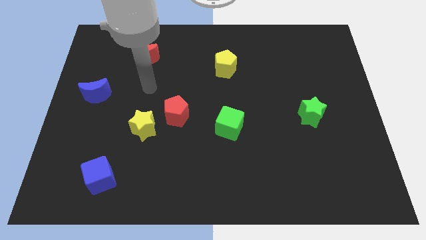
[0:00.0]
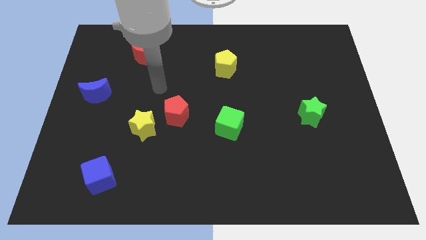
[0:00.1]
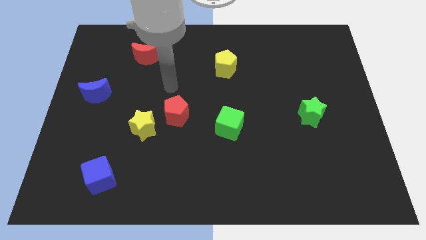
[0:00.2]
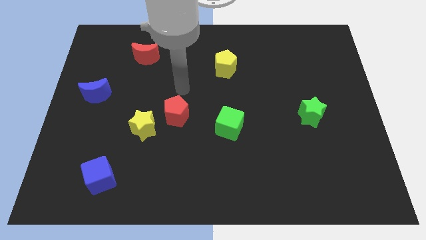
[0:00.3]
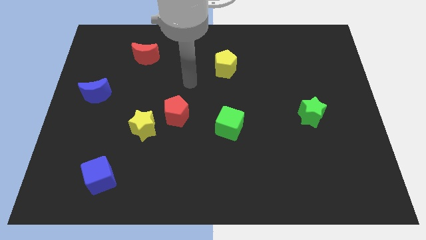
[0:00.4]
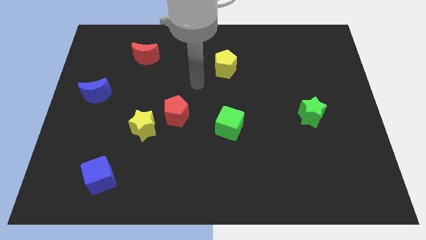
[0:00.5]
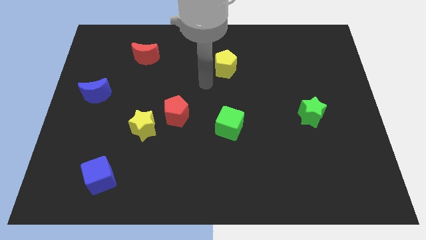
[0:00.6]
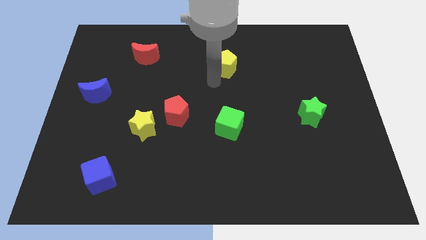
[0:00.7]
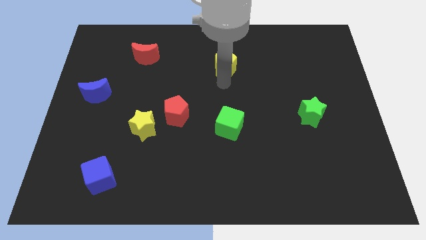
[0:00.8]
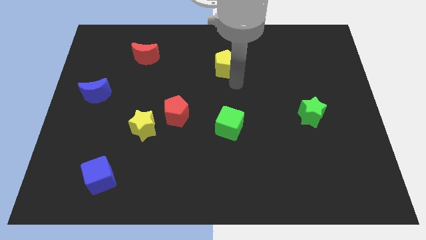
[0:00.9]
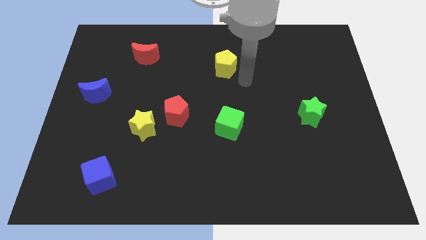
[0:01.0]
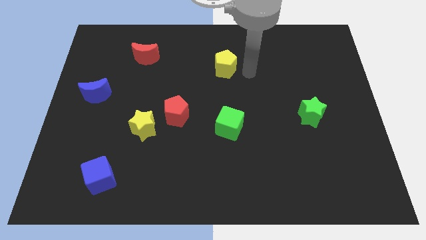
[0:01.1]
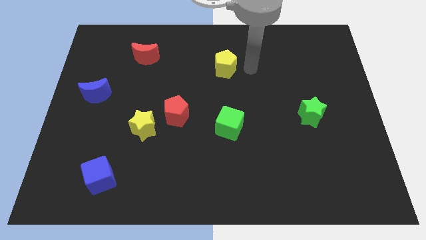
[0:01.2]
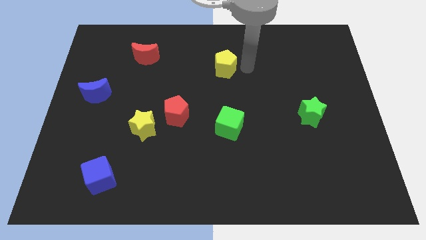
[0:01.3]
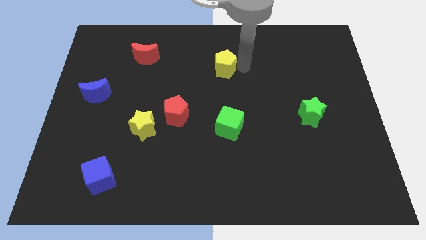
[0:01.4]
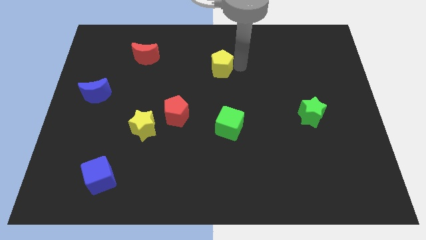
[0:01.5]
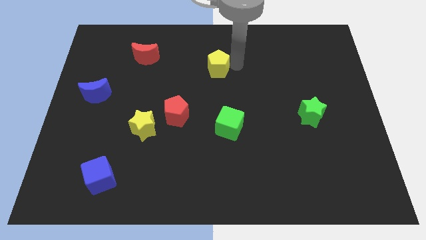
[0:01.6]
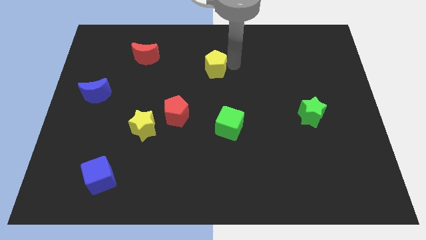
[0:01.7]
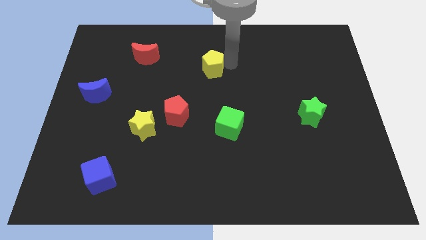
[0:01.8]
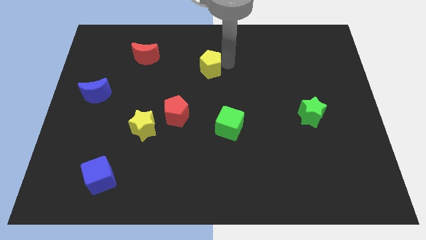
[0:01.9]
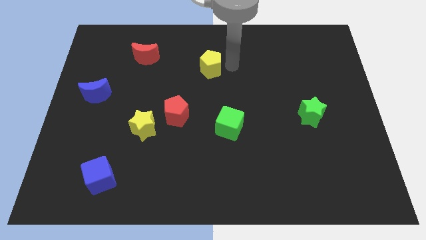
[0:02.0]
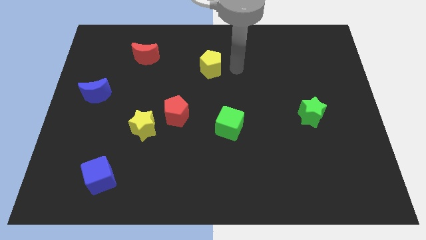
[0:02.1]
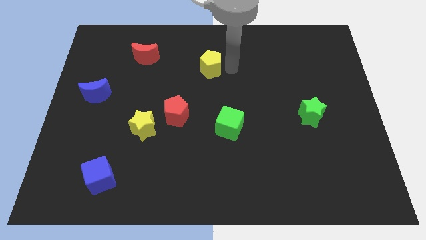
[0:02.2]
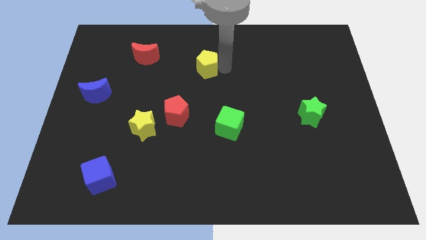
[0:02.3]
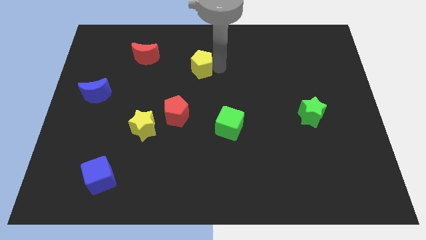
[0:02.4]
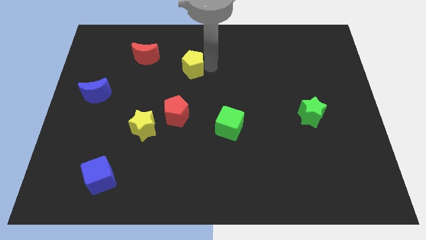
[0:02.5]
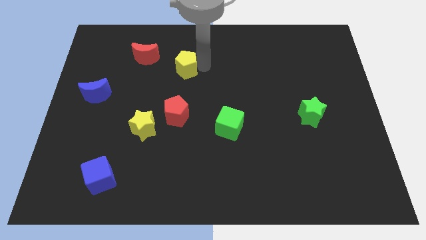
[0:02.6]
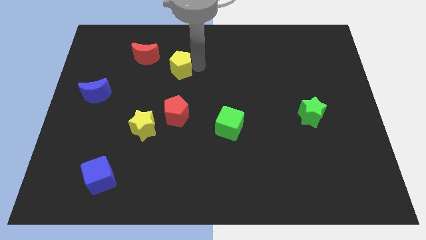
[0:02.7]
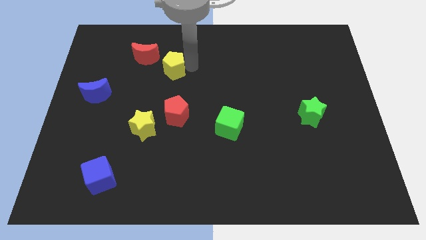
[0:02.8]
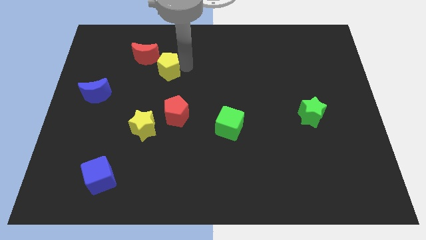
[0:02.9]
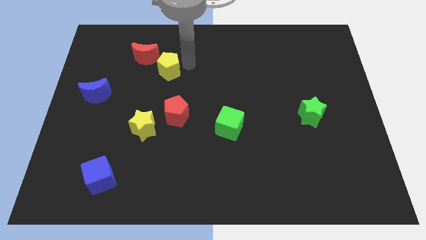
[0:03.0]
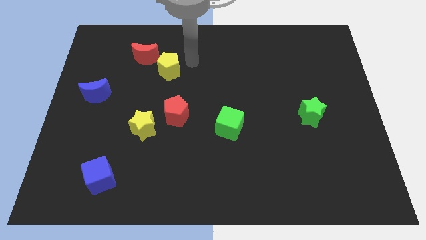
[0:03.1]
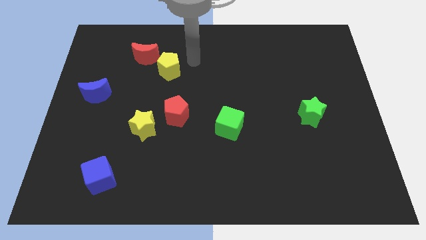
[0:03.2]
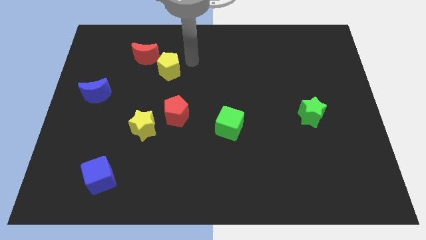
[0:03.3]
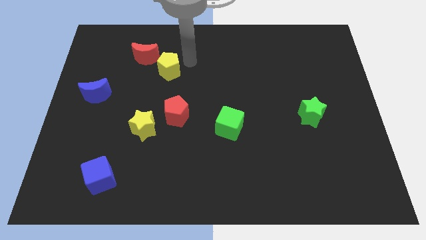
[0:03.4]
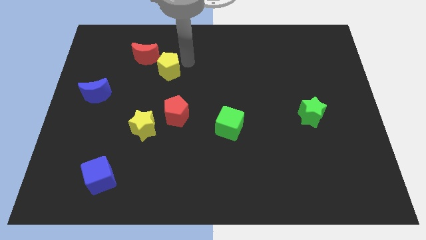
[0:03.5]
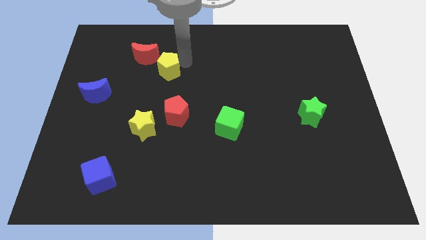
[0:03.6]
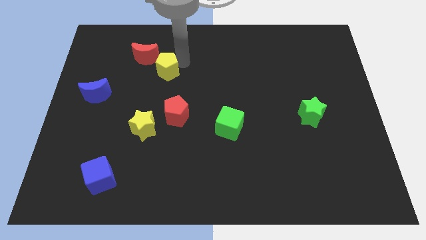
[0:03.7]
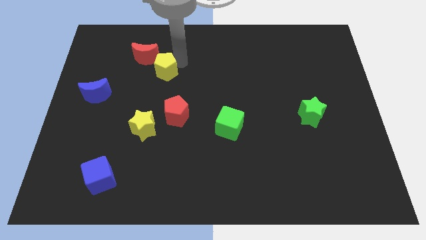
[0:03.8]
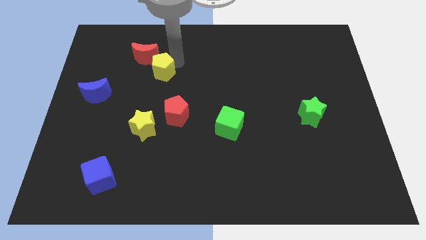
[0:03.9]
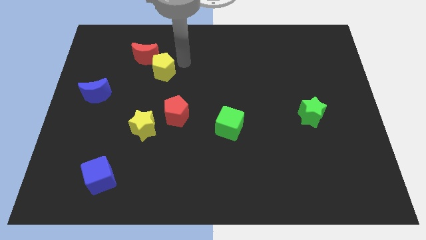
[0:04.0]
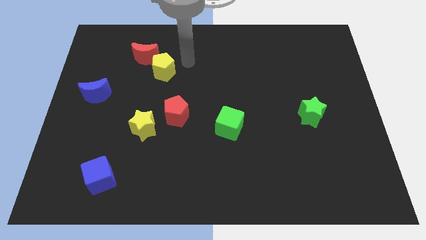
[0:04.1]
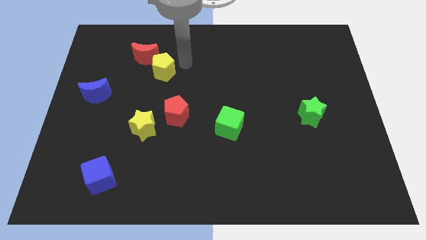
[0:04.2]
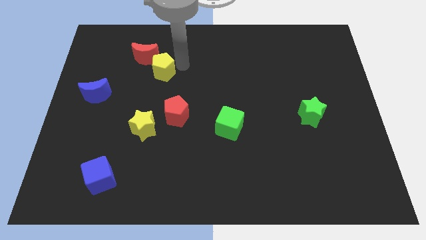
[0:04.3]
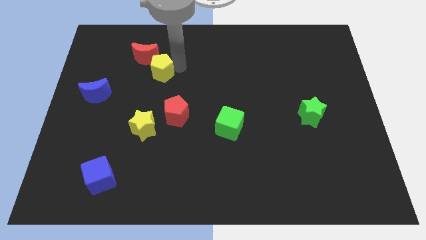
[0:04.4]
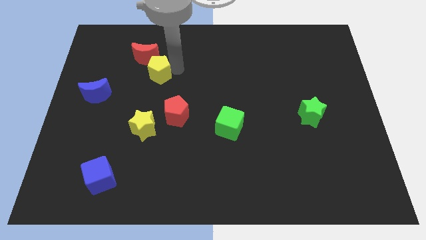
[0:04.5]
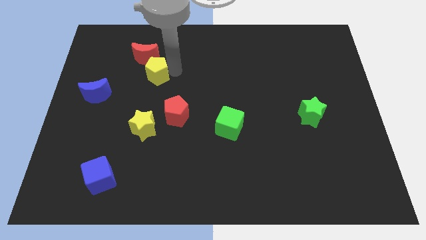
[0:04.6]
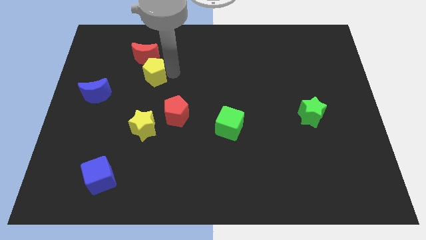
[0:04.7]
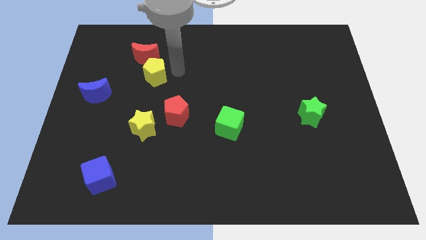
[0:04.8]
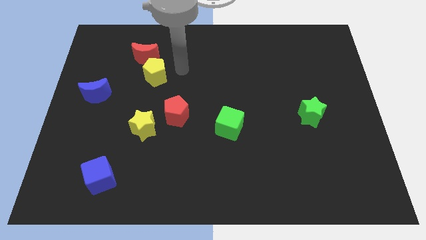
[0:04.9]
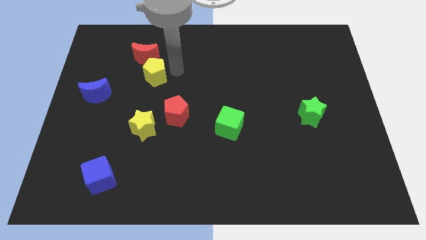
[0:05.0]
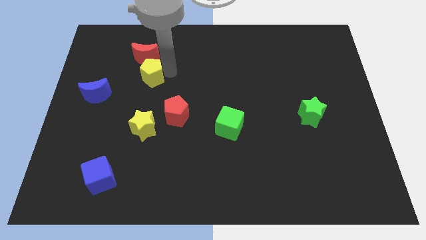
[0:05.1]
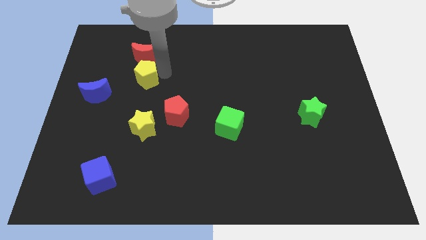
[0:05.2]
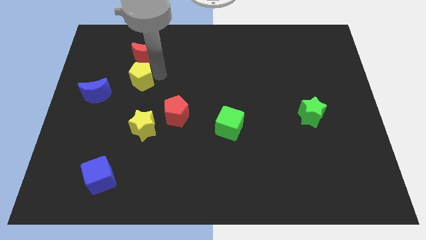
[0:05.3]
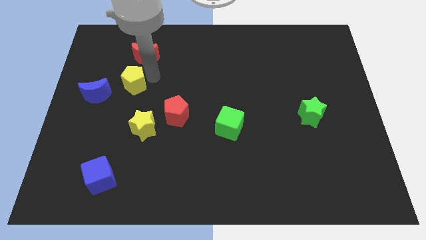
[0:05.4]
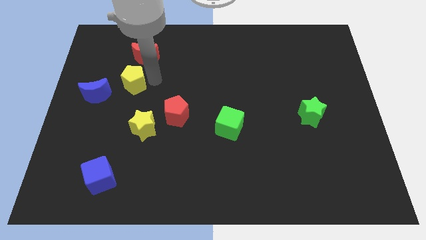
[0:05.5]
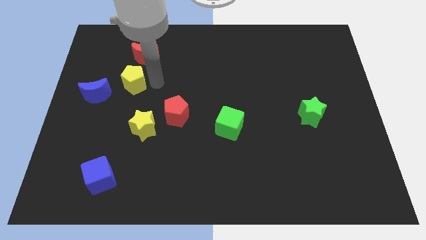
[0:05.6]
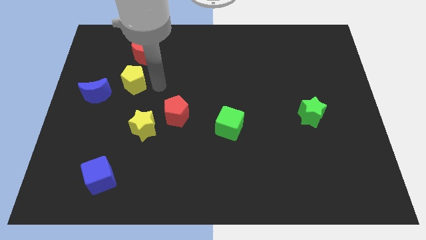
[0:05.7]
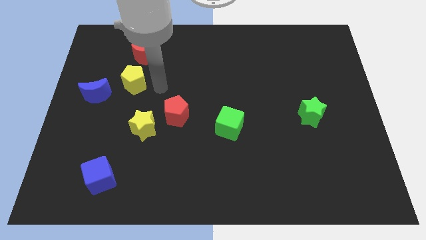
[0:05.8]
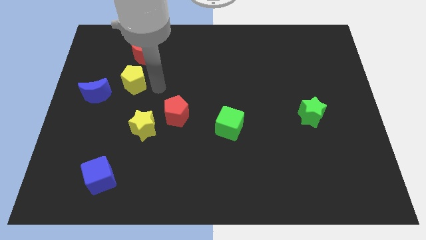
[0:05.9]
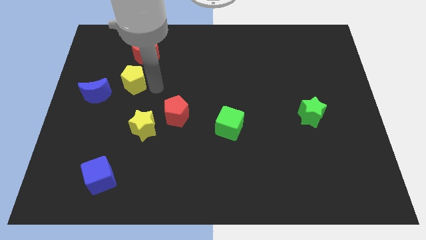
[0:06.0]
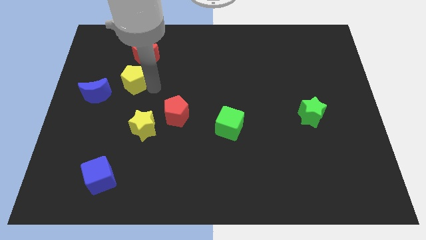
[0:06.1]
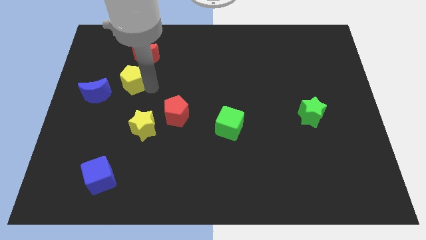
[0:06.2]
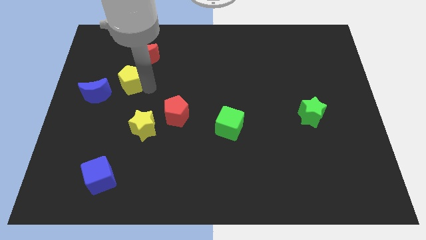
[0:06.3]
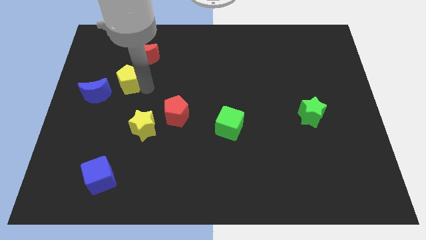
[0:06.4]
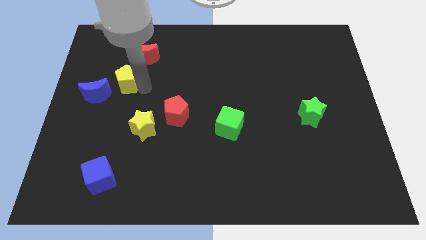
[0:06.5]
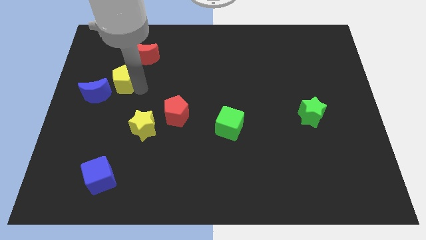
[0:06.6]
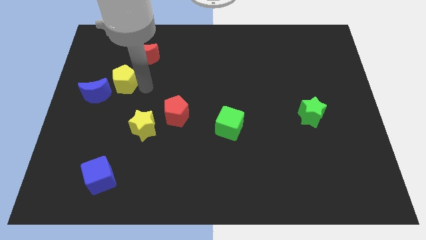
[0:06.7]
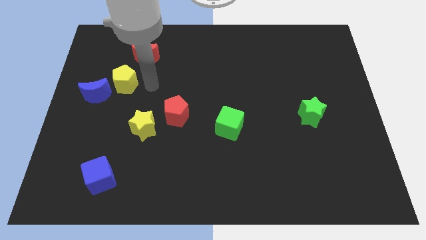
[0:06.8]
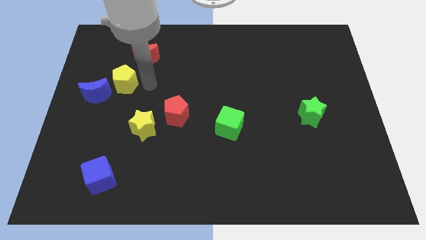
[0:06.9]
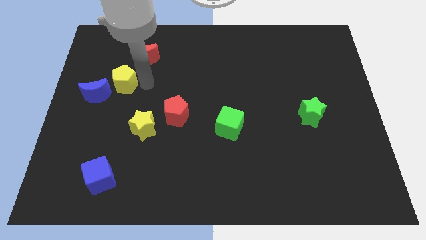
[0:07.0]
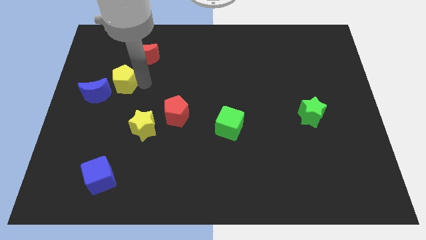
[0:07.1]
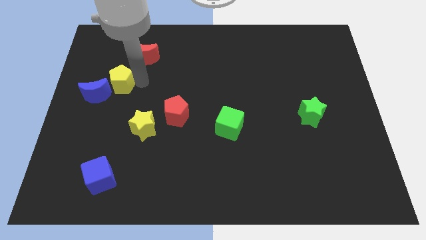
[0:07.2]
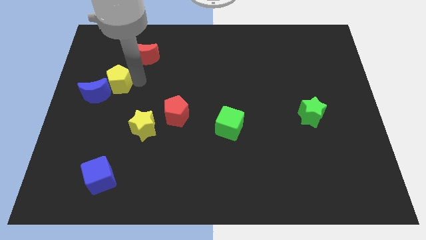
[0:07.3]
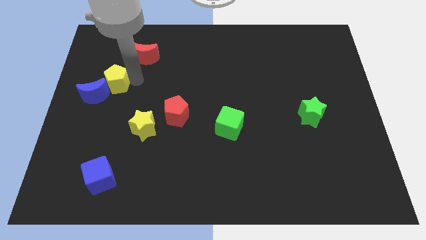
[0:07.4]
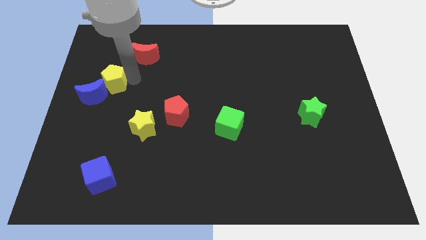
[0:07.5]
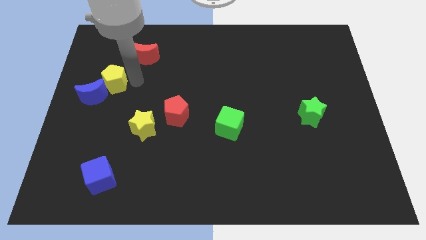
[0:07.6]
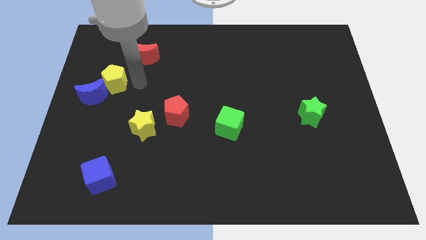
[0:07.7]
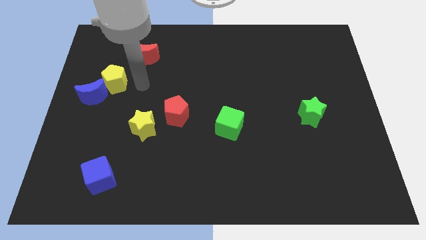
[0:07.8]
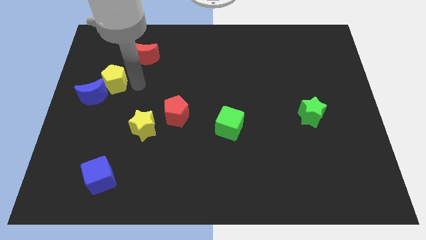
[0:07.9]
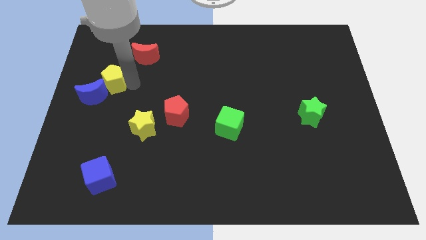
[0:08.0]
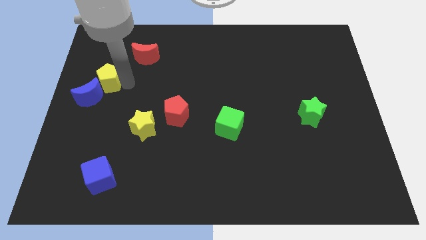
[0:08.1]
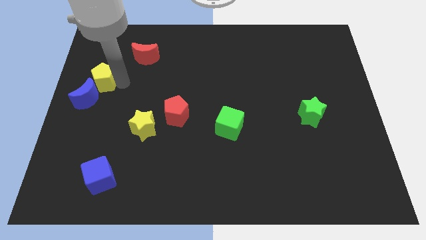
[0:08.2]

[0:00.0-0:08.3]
put the yellow pentagon to the left side of the board
